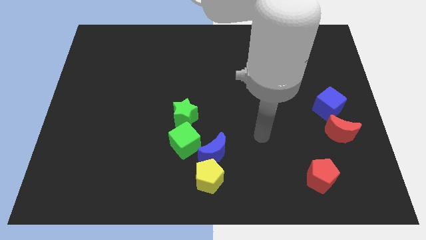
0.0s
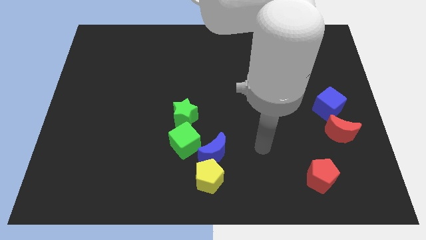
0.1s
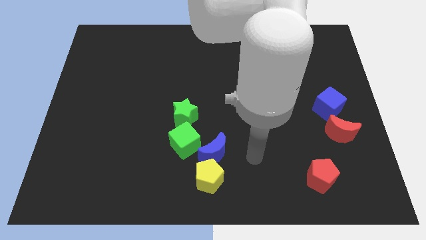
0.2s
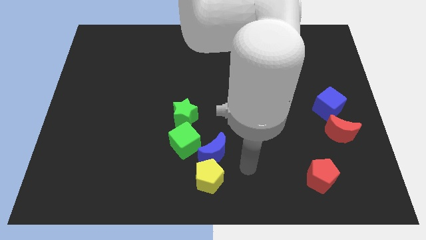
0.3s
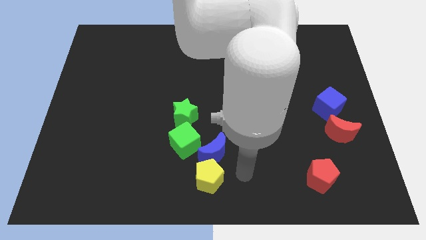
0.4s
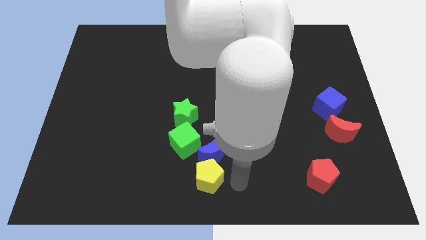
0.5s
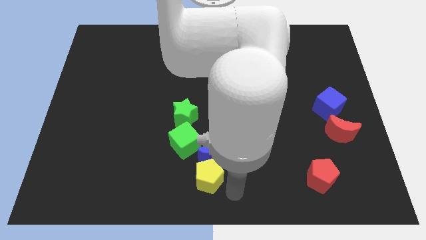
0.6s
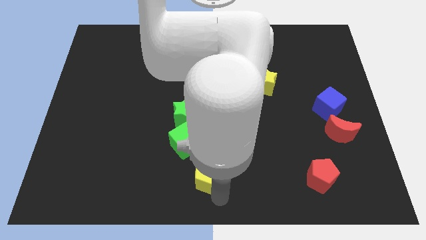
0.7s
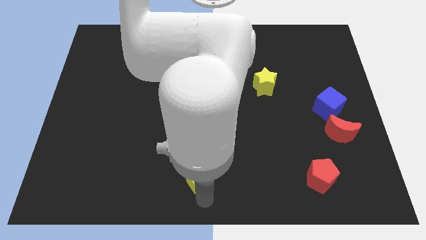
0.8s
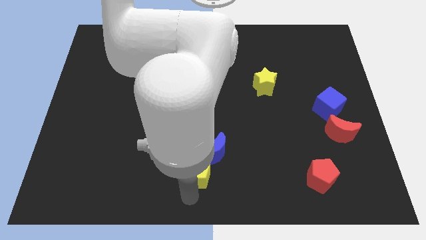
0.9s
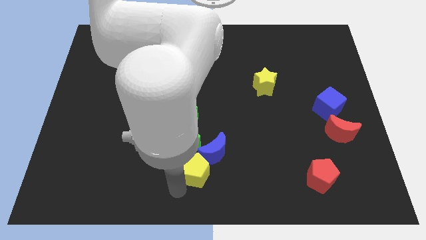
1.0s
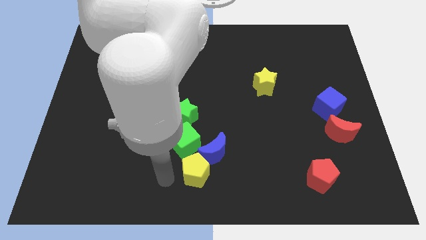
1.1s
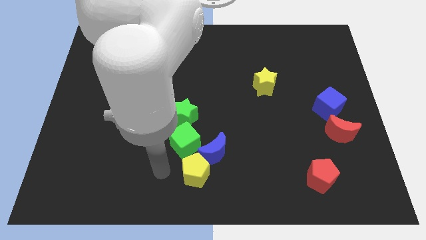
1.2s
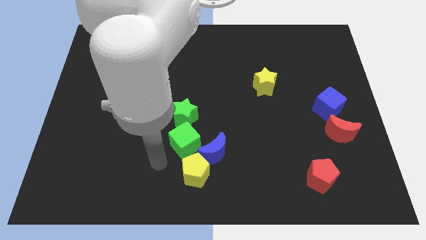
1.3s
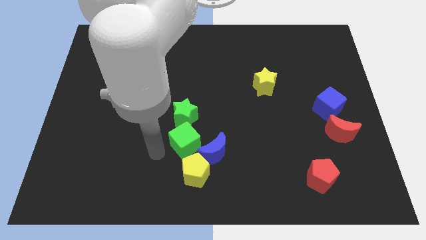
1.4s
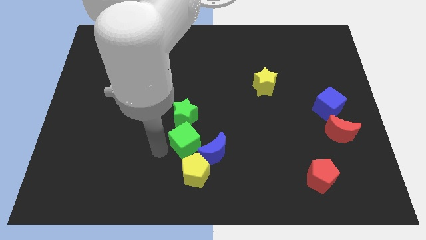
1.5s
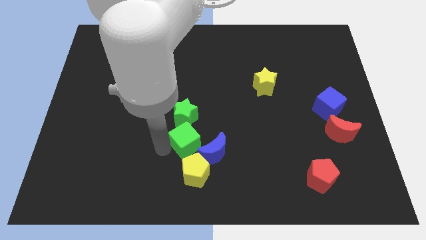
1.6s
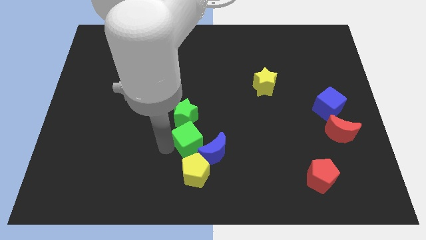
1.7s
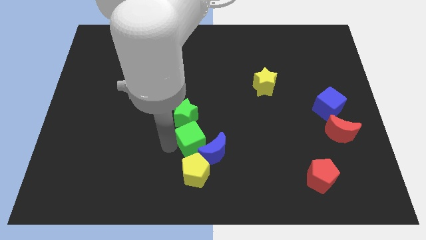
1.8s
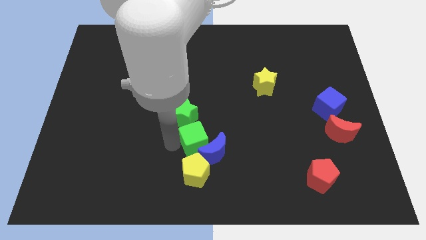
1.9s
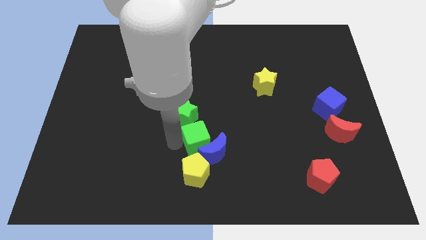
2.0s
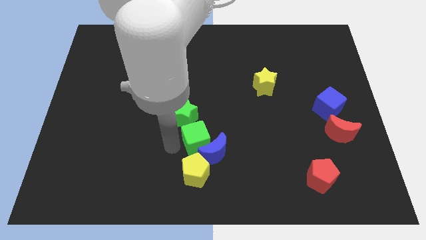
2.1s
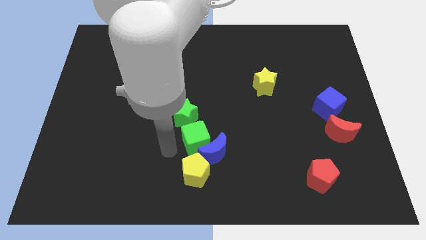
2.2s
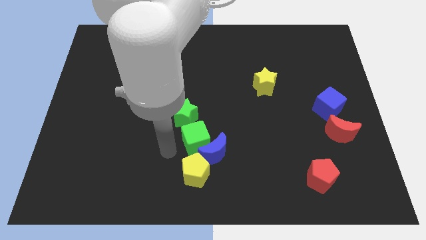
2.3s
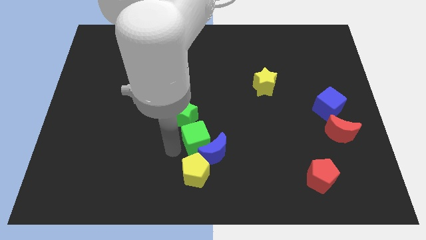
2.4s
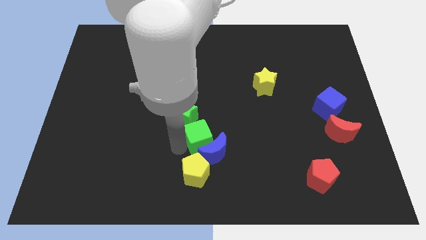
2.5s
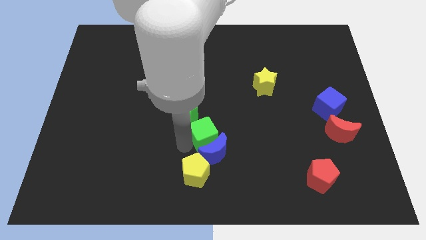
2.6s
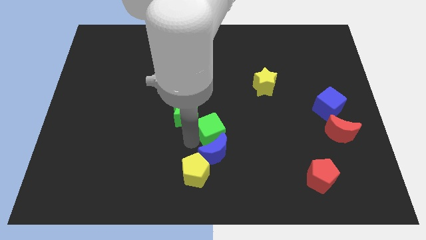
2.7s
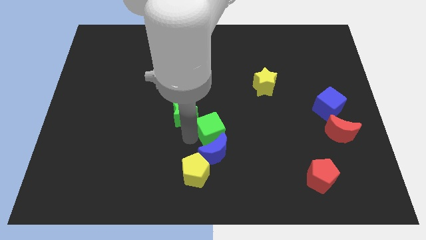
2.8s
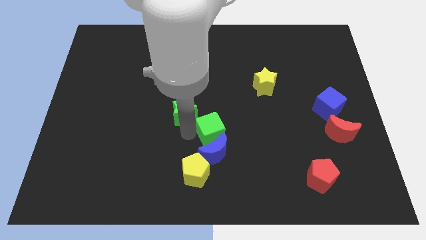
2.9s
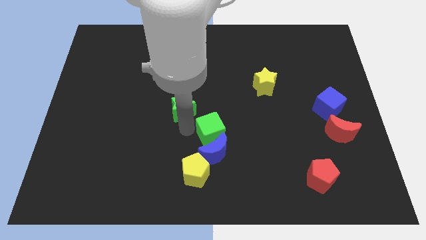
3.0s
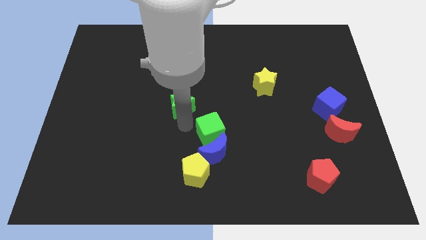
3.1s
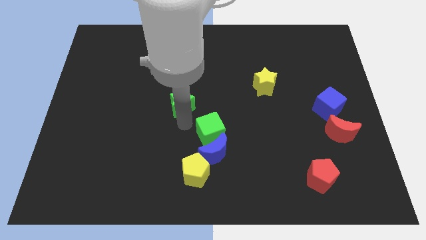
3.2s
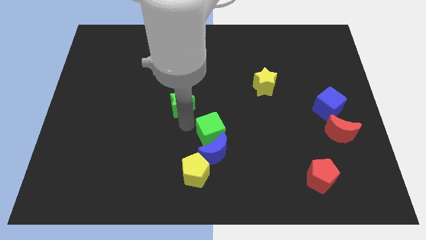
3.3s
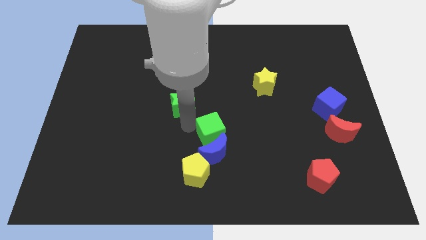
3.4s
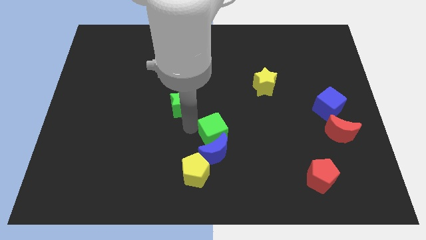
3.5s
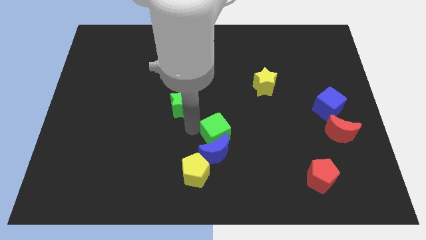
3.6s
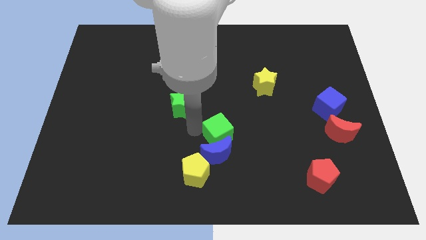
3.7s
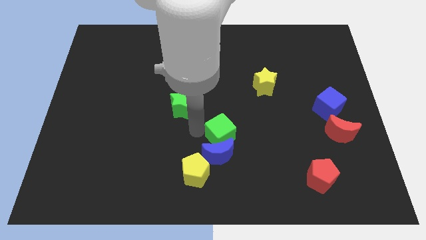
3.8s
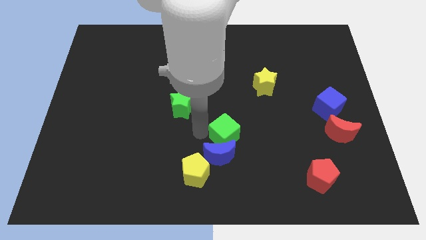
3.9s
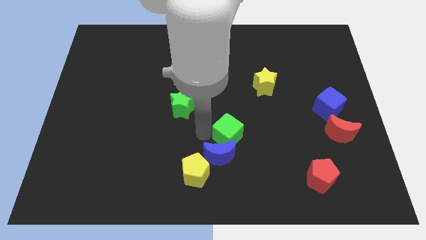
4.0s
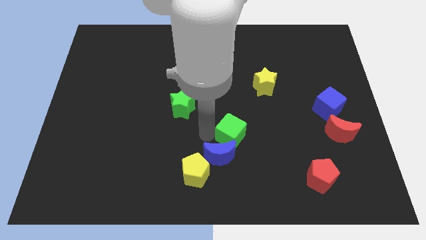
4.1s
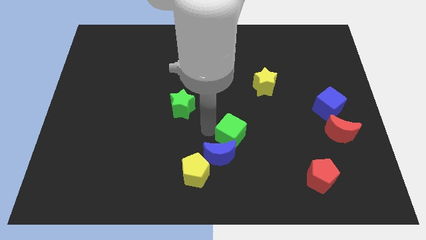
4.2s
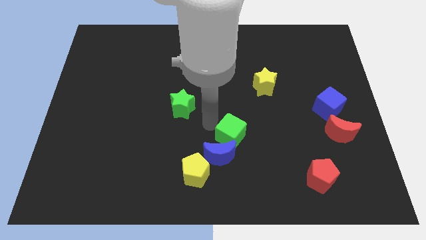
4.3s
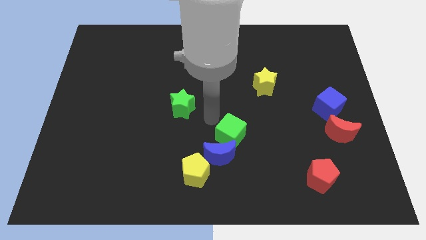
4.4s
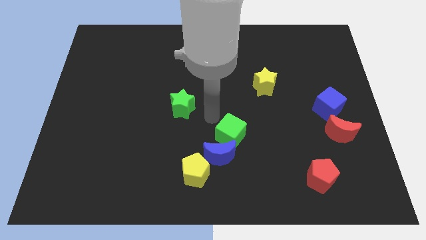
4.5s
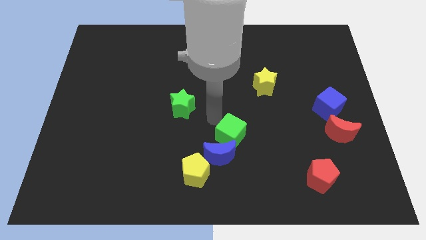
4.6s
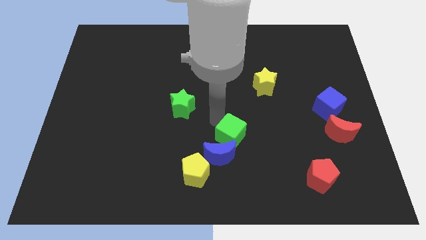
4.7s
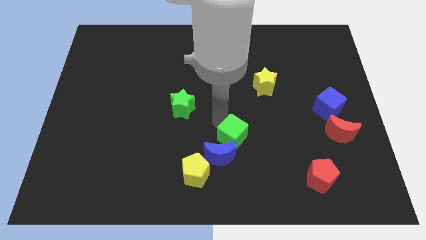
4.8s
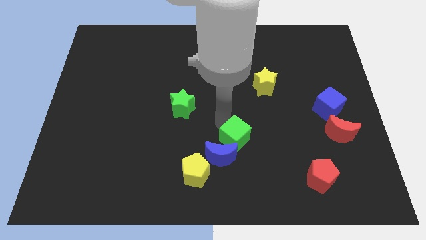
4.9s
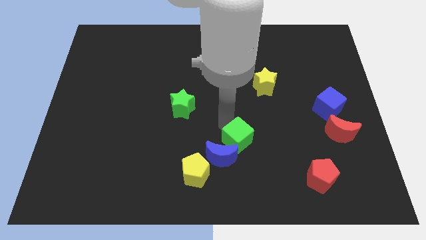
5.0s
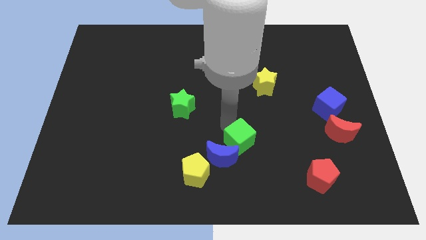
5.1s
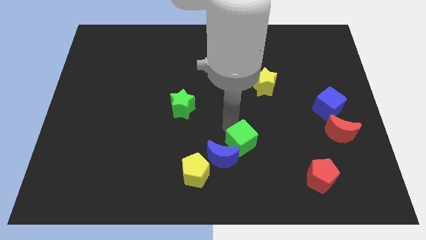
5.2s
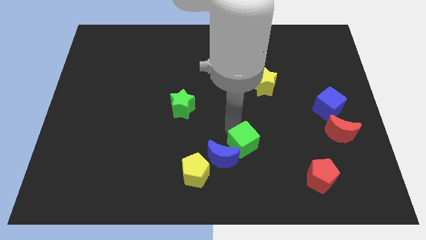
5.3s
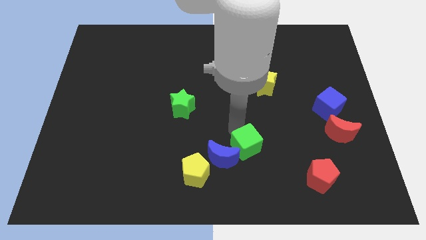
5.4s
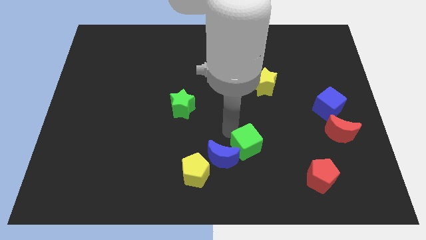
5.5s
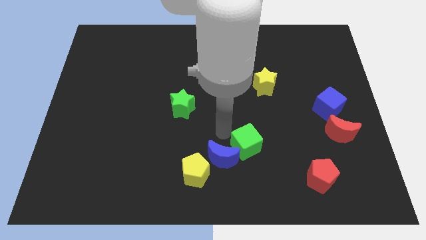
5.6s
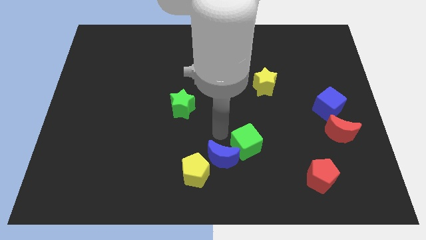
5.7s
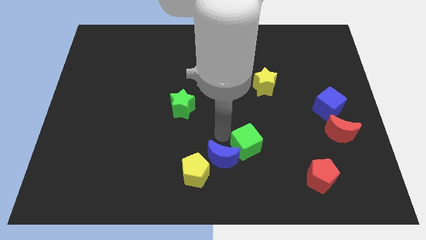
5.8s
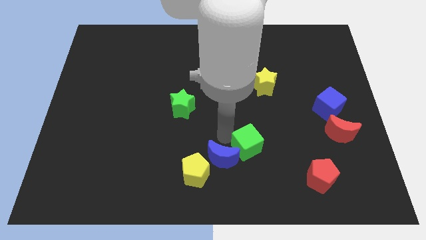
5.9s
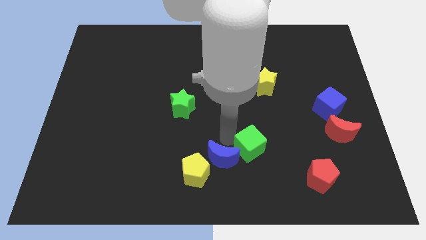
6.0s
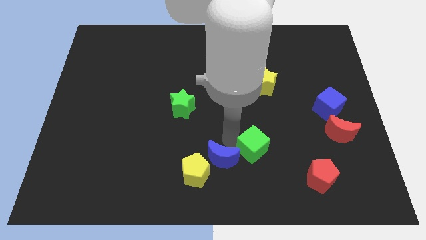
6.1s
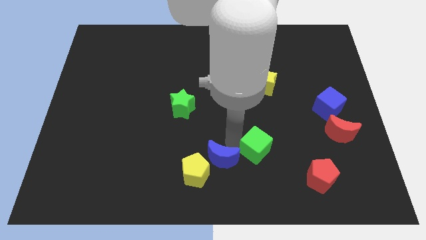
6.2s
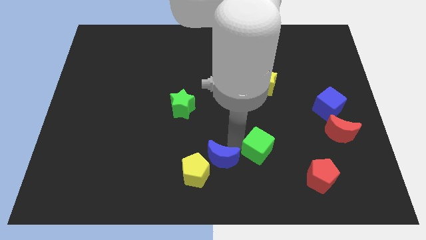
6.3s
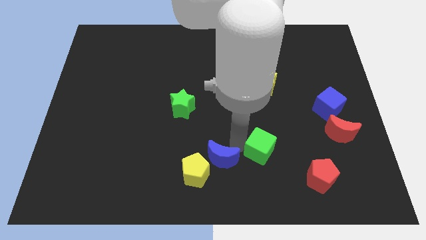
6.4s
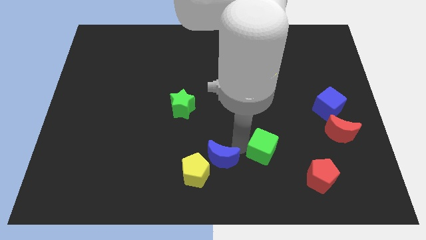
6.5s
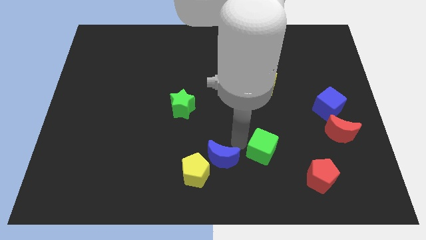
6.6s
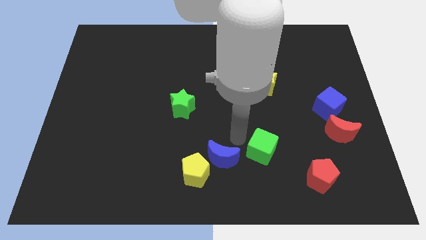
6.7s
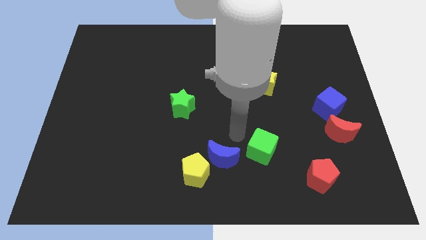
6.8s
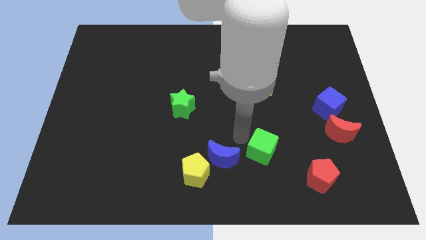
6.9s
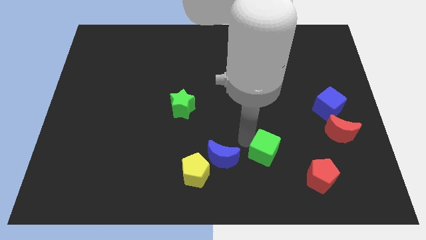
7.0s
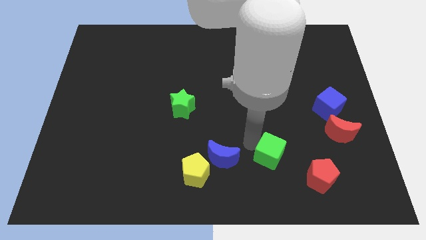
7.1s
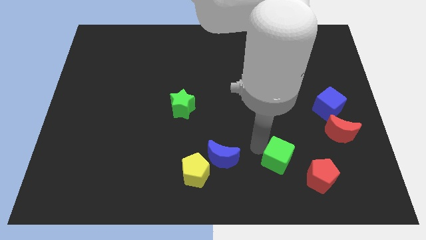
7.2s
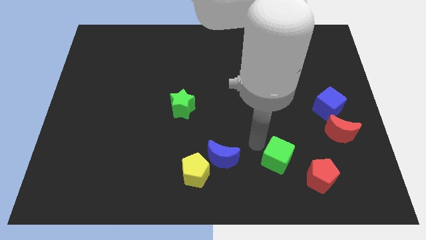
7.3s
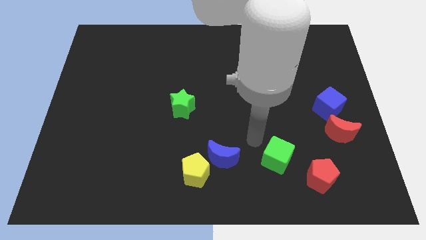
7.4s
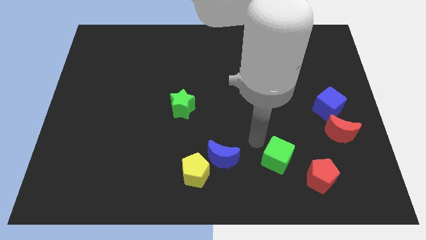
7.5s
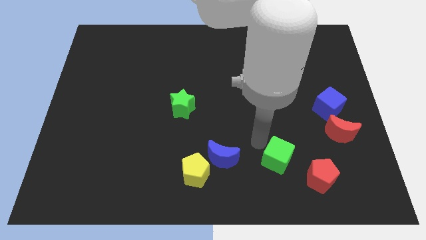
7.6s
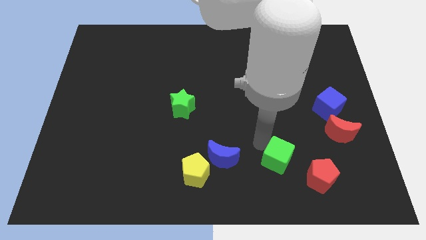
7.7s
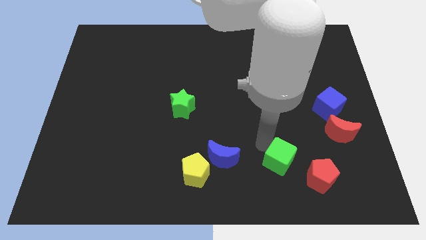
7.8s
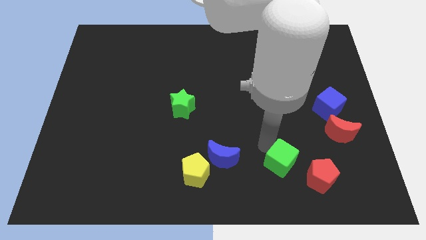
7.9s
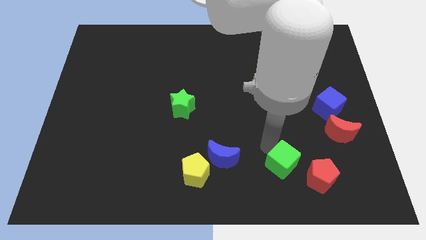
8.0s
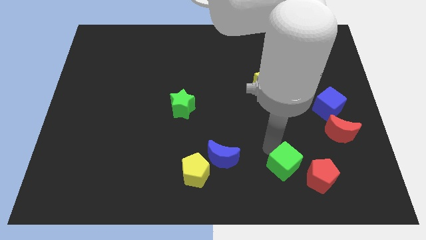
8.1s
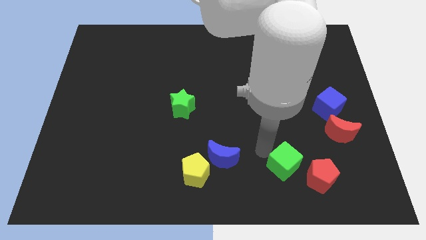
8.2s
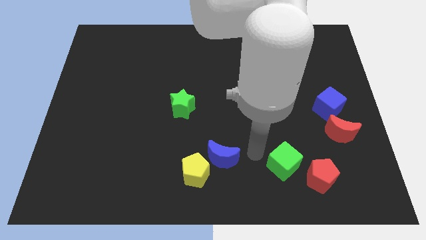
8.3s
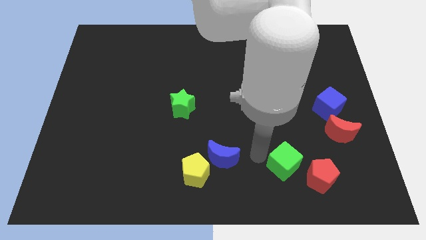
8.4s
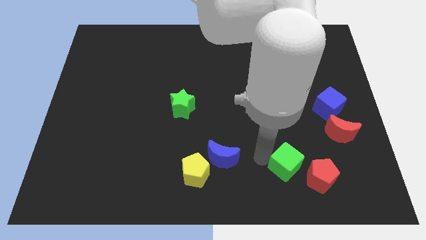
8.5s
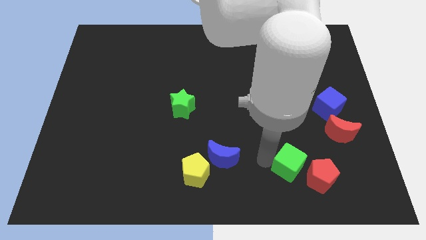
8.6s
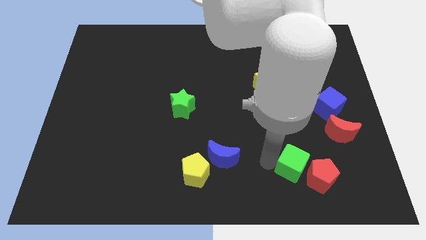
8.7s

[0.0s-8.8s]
move the green cube next to the red pentagon
